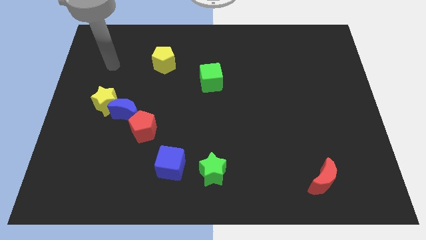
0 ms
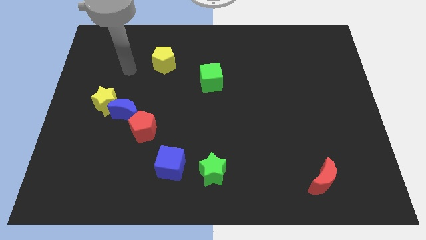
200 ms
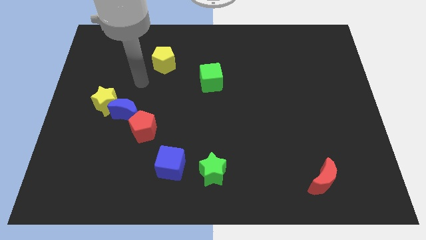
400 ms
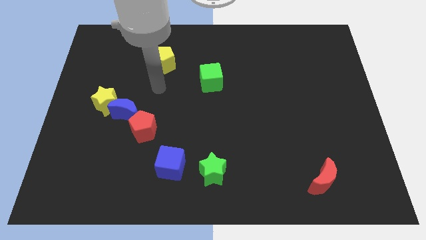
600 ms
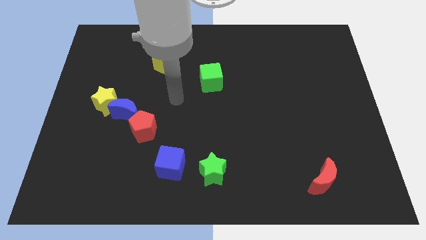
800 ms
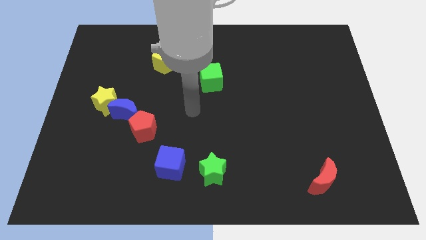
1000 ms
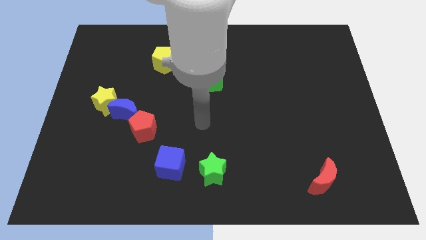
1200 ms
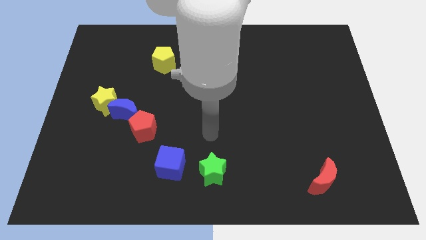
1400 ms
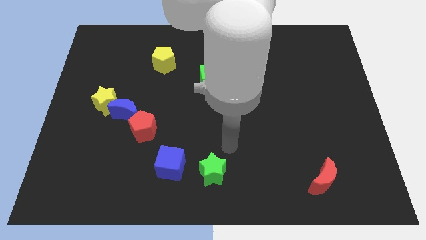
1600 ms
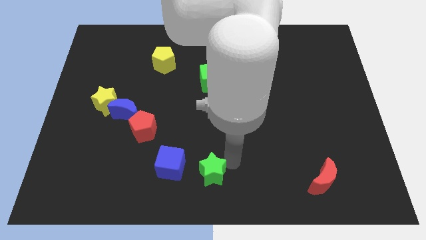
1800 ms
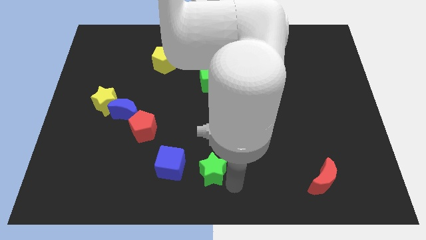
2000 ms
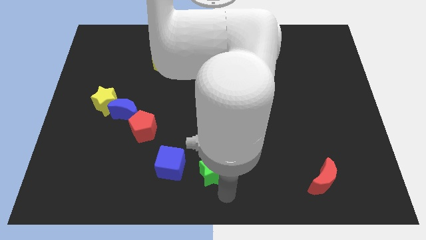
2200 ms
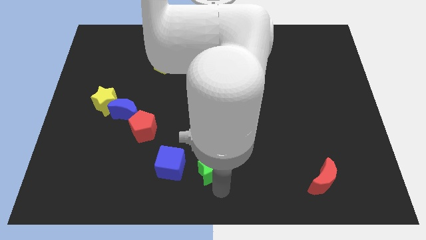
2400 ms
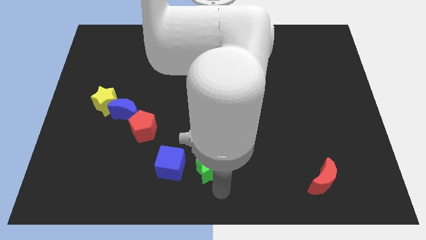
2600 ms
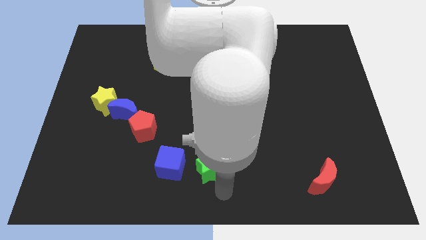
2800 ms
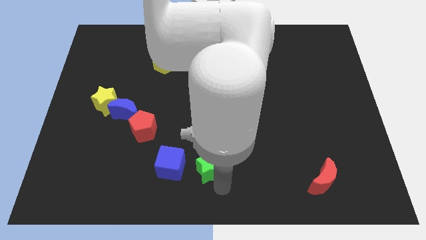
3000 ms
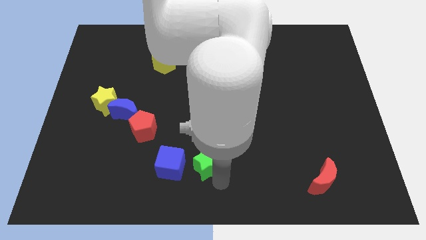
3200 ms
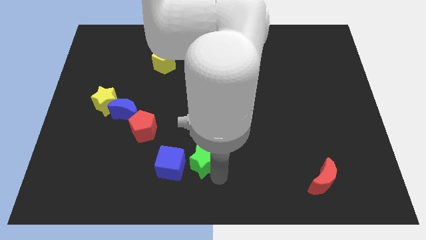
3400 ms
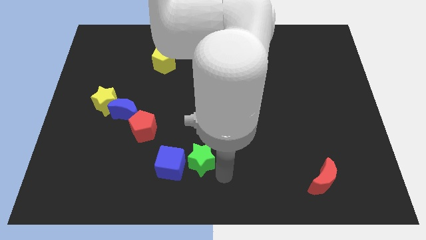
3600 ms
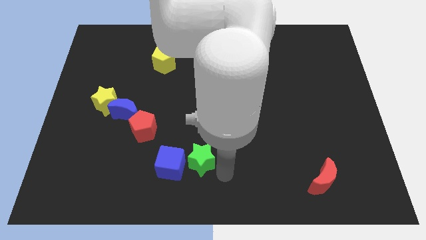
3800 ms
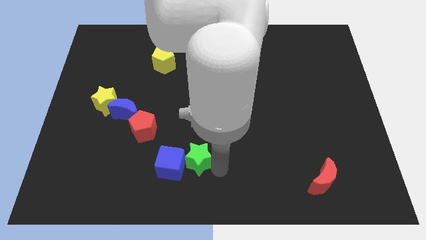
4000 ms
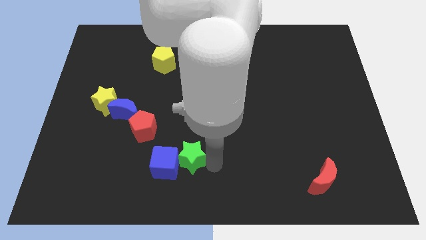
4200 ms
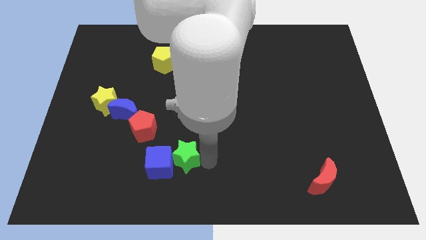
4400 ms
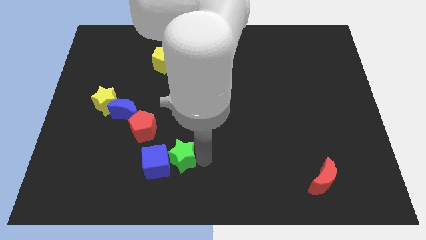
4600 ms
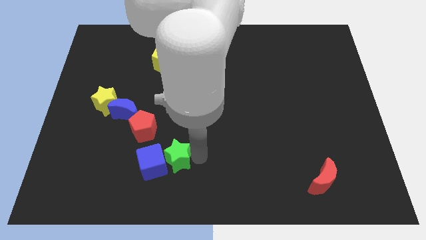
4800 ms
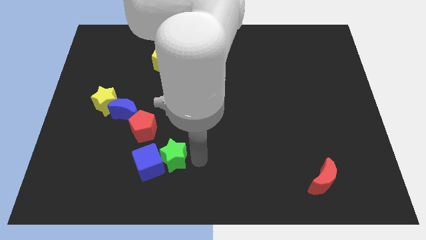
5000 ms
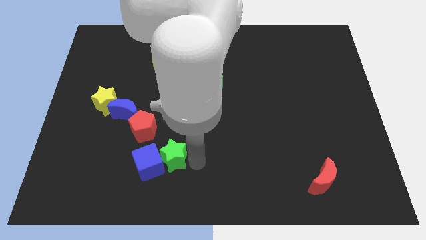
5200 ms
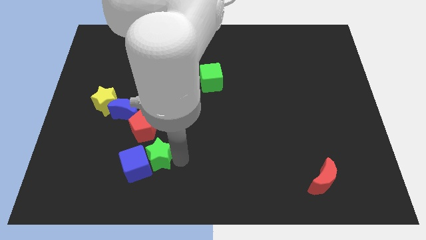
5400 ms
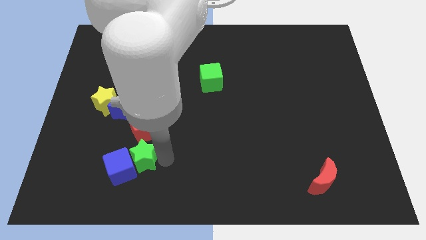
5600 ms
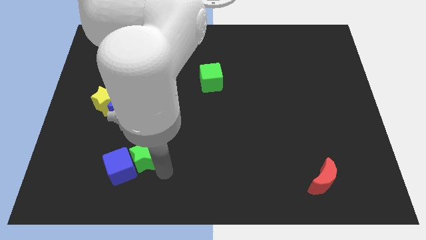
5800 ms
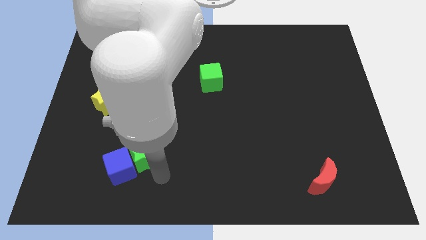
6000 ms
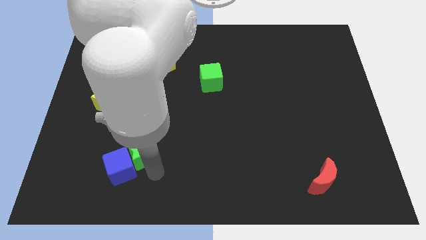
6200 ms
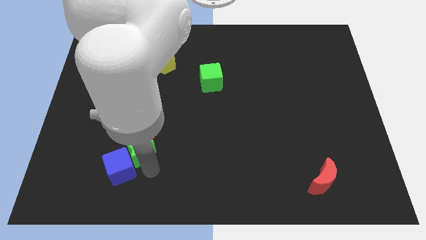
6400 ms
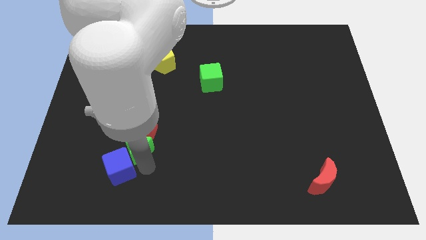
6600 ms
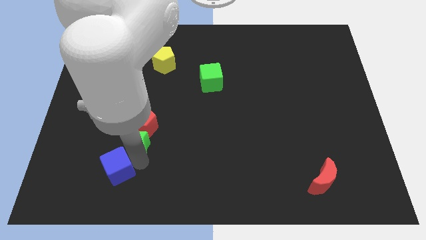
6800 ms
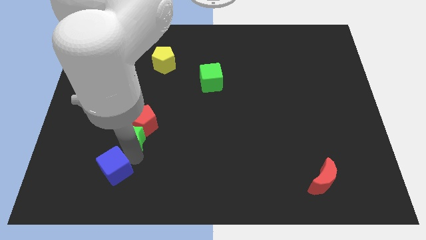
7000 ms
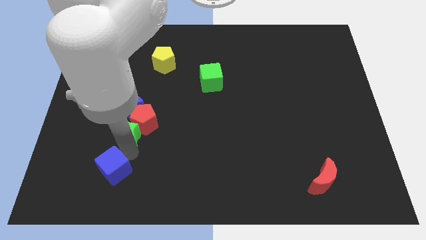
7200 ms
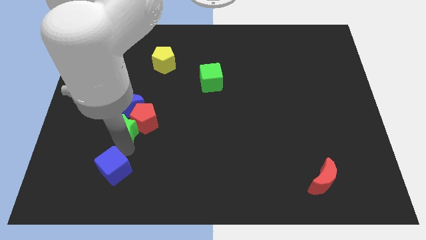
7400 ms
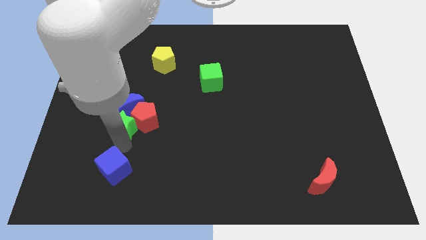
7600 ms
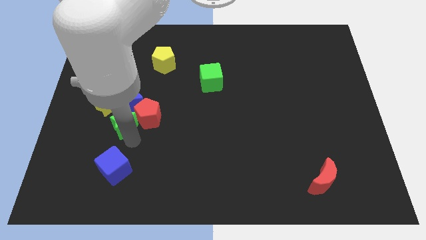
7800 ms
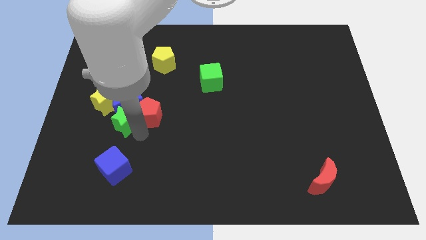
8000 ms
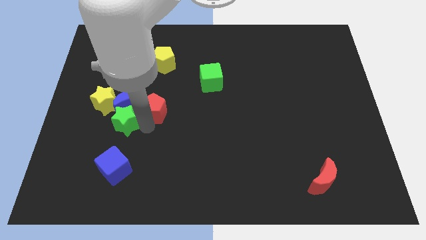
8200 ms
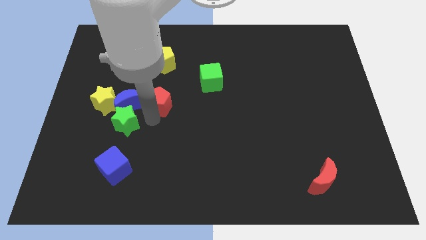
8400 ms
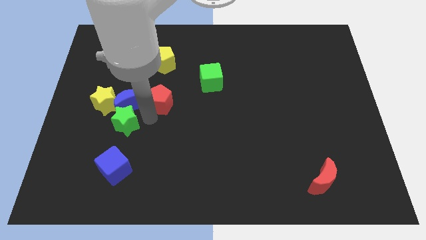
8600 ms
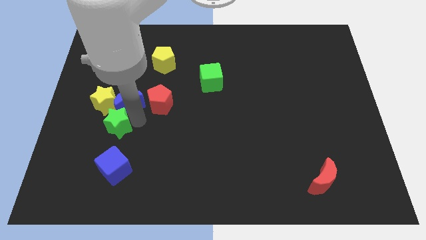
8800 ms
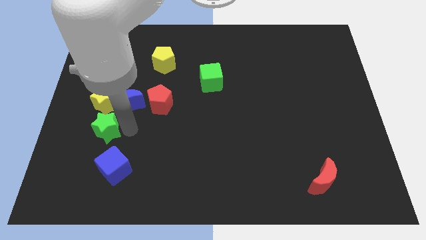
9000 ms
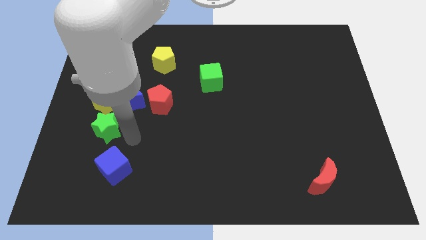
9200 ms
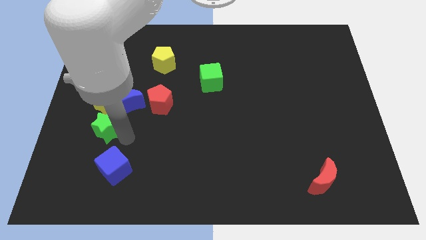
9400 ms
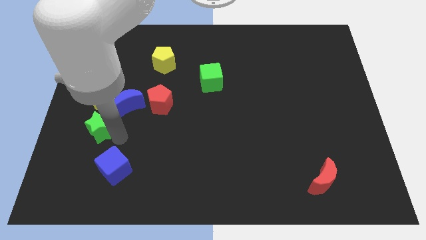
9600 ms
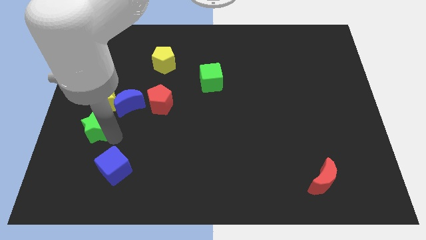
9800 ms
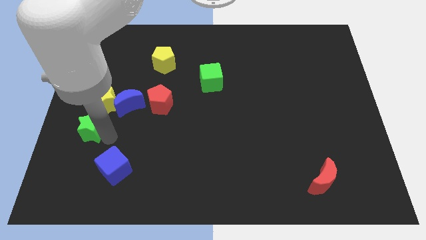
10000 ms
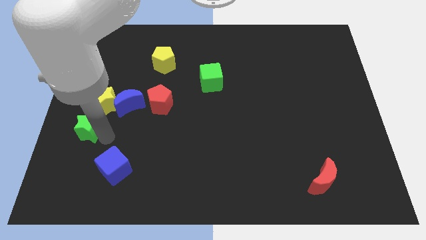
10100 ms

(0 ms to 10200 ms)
slide the green star to the center left

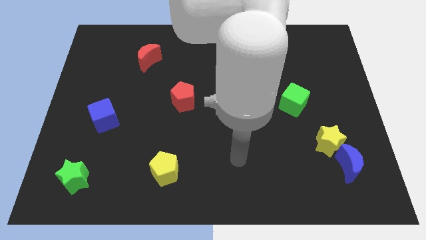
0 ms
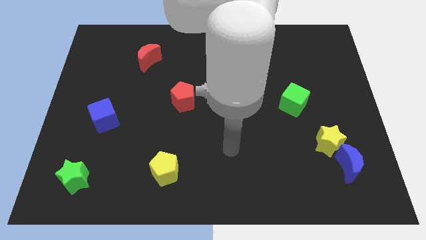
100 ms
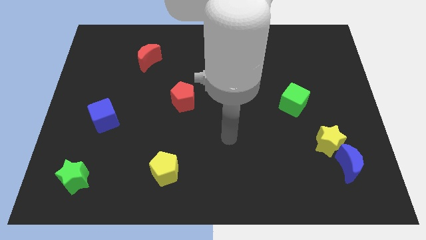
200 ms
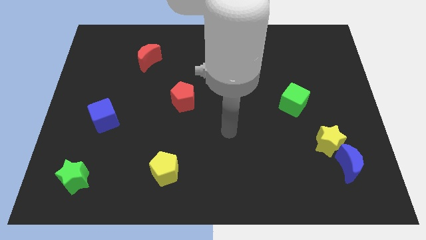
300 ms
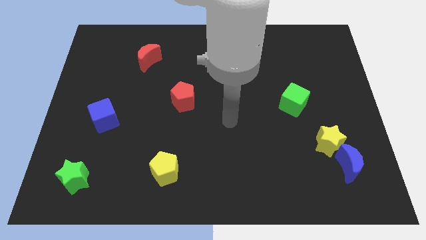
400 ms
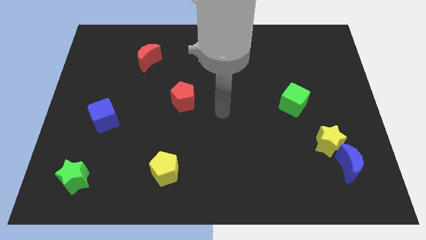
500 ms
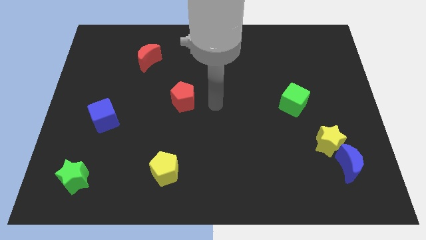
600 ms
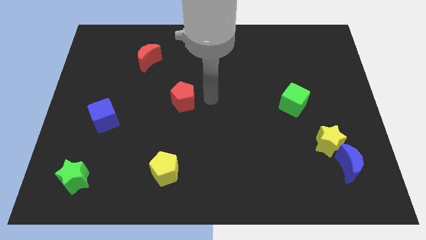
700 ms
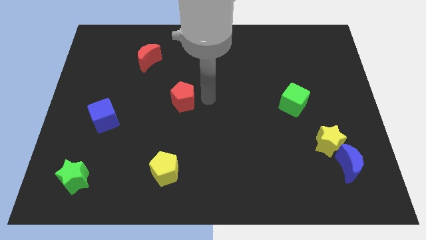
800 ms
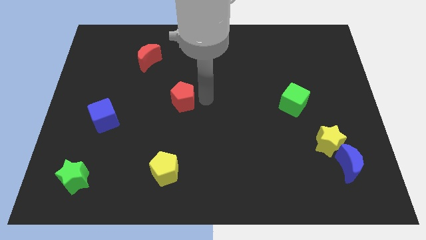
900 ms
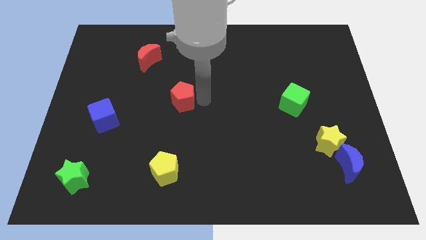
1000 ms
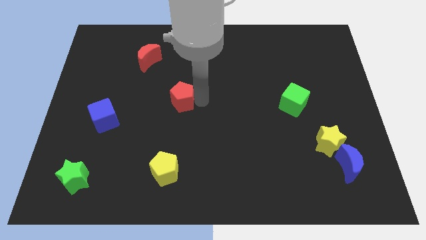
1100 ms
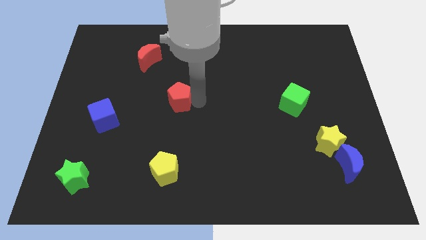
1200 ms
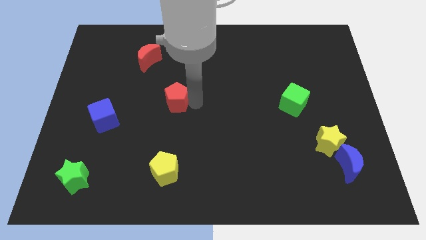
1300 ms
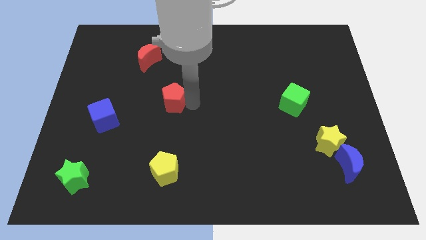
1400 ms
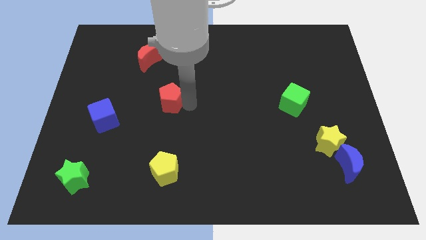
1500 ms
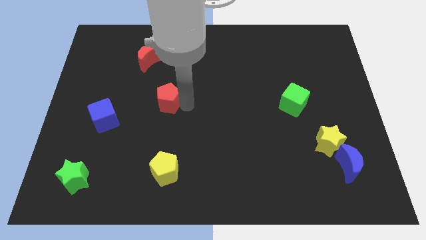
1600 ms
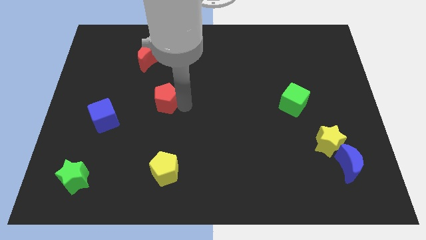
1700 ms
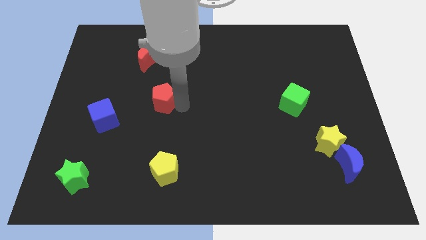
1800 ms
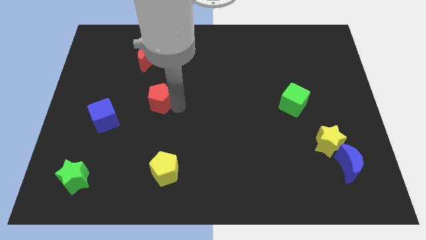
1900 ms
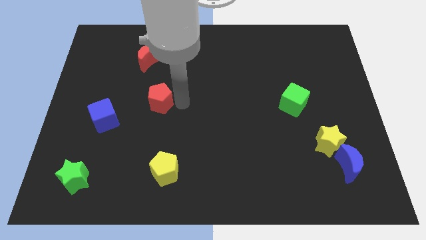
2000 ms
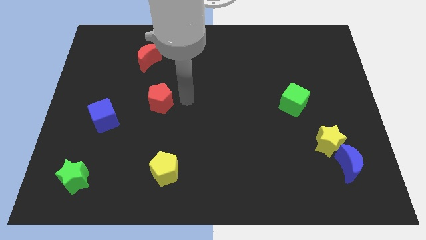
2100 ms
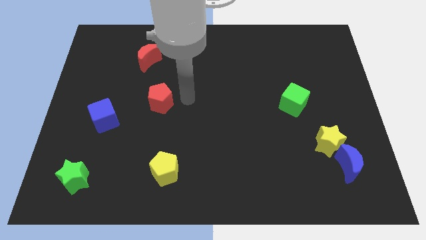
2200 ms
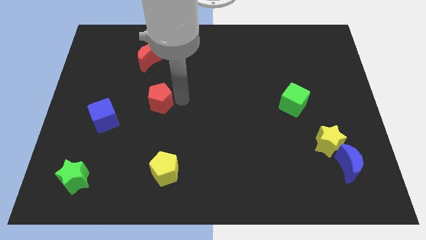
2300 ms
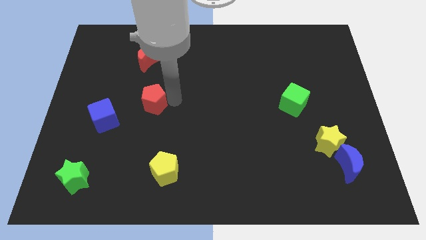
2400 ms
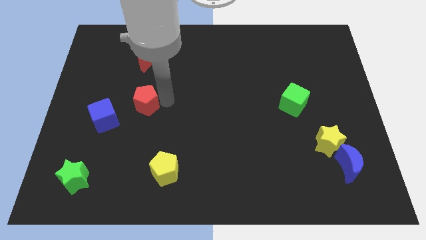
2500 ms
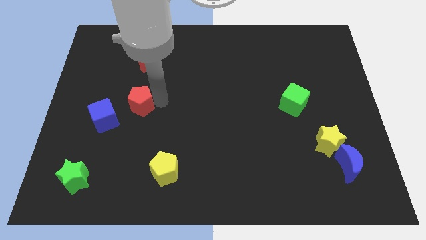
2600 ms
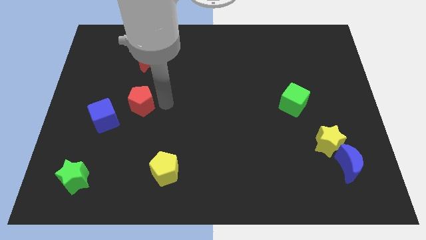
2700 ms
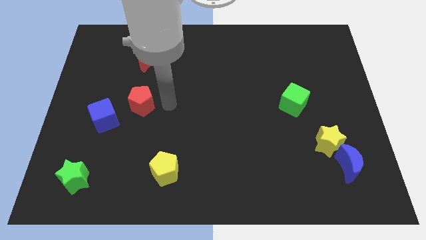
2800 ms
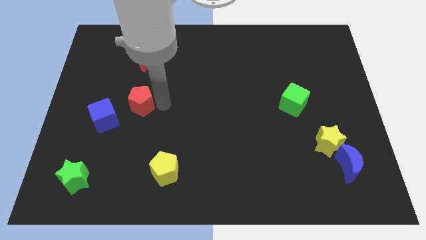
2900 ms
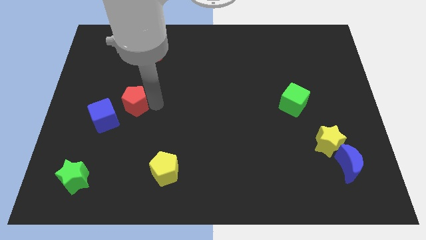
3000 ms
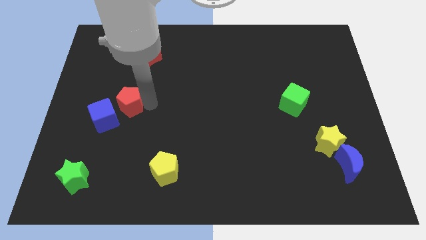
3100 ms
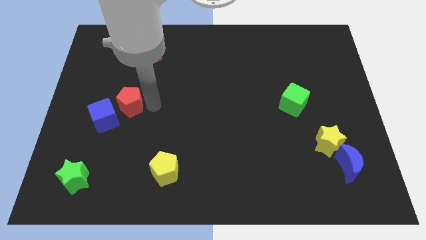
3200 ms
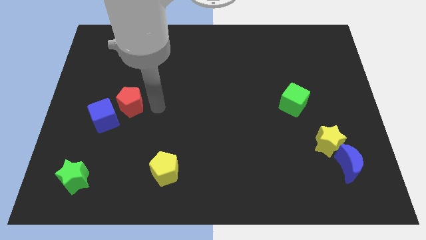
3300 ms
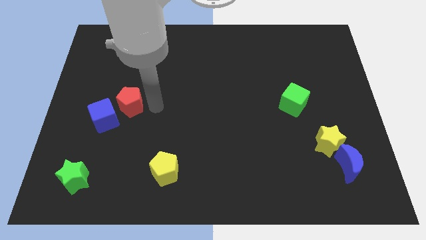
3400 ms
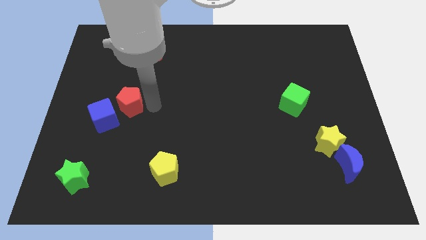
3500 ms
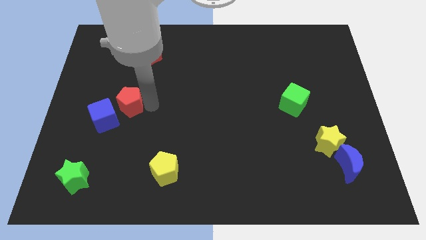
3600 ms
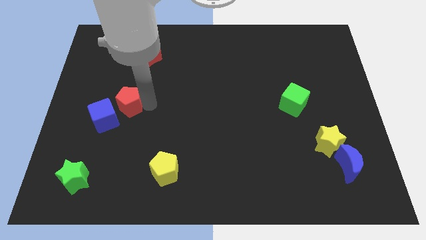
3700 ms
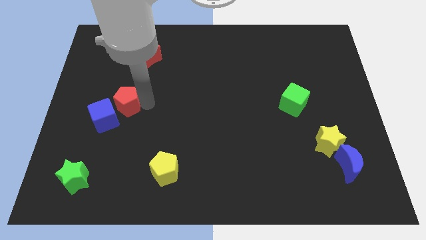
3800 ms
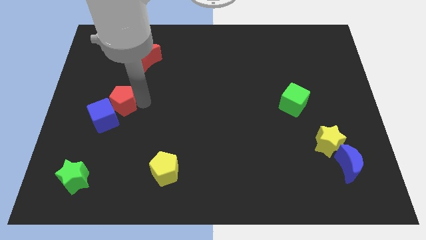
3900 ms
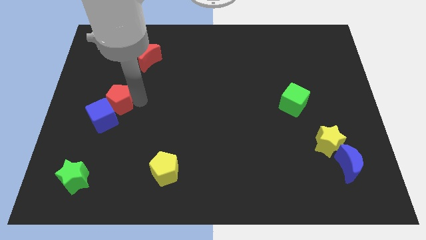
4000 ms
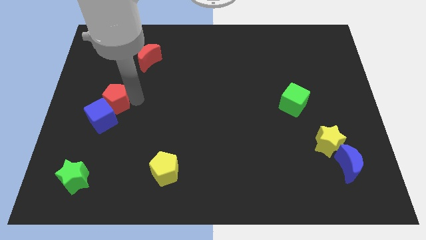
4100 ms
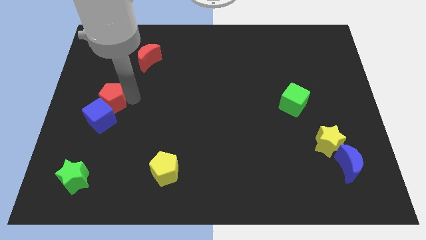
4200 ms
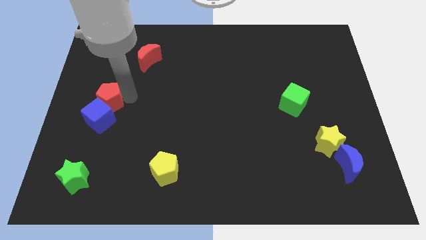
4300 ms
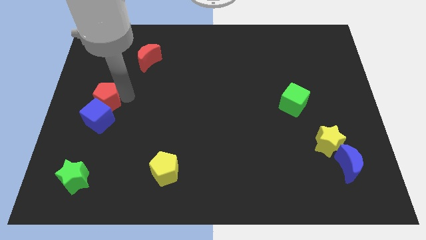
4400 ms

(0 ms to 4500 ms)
put the red pentagon to the left side of the board
